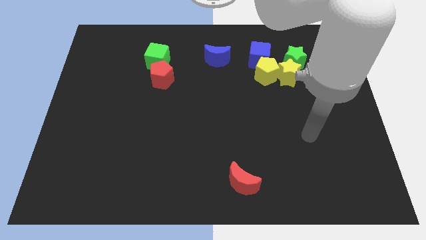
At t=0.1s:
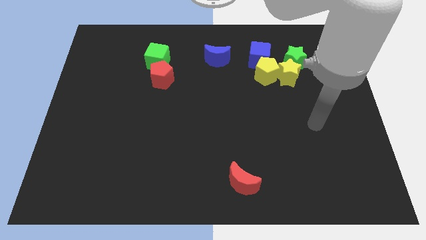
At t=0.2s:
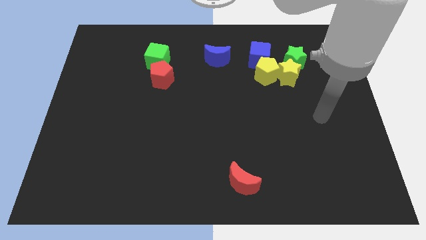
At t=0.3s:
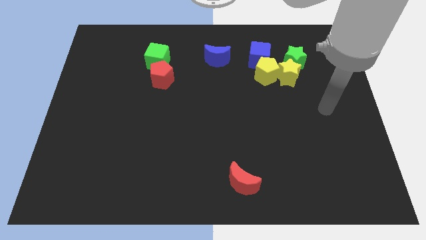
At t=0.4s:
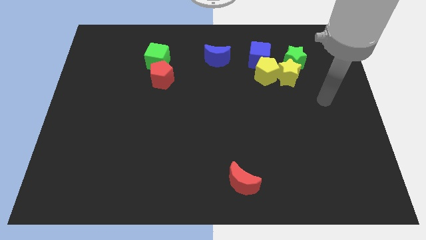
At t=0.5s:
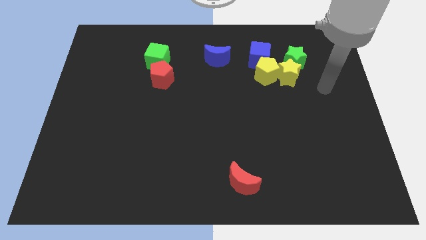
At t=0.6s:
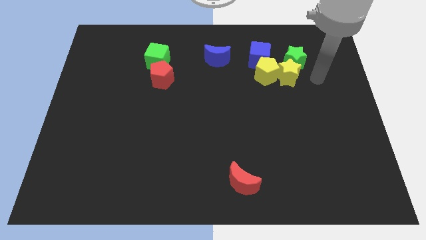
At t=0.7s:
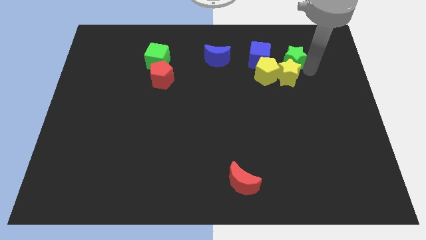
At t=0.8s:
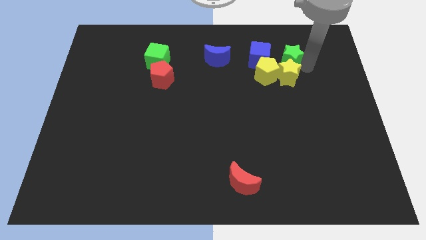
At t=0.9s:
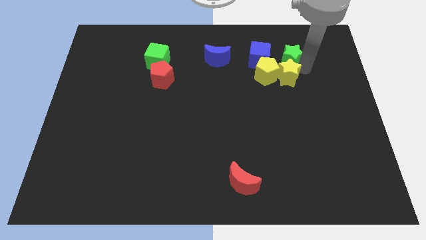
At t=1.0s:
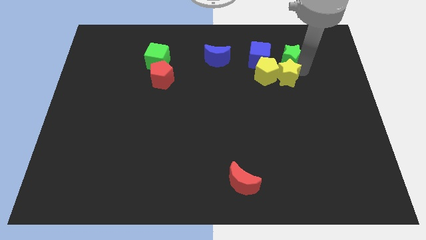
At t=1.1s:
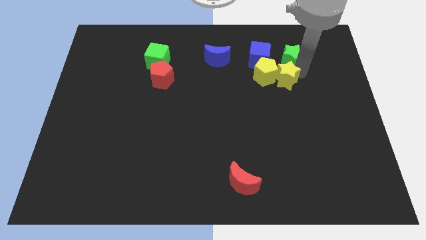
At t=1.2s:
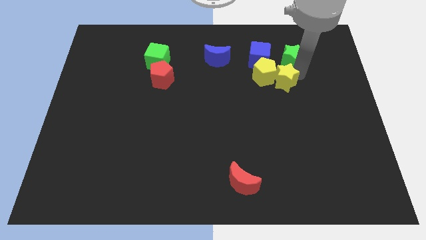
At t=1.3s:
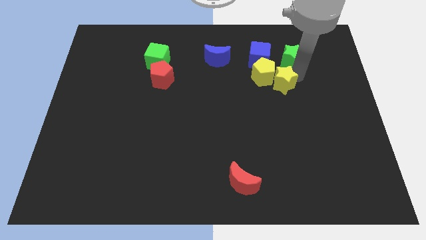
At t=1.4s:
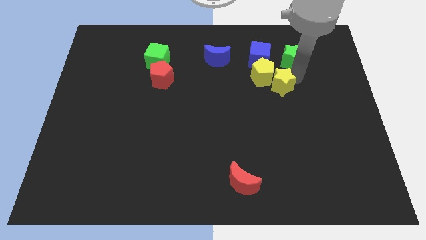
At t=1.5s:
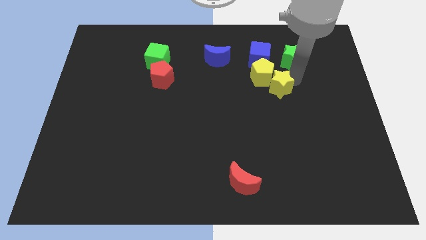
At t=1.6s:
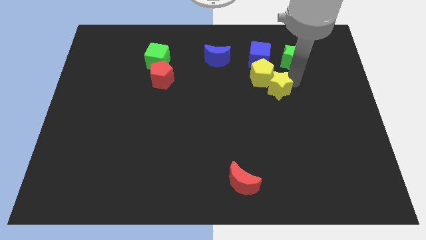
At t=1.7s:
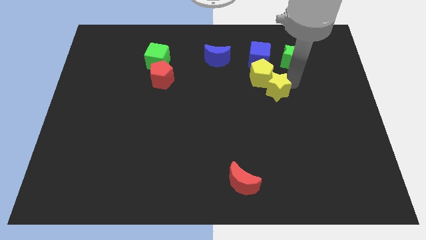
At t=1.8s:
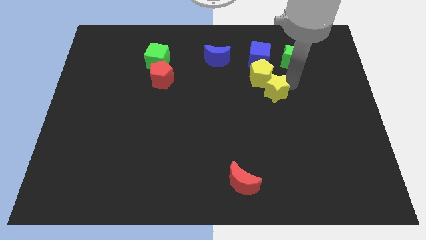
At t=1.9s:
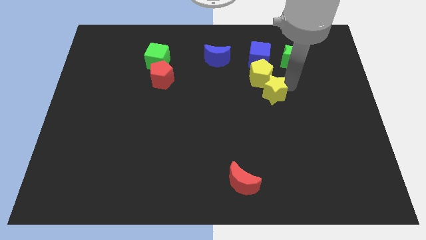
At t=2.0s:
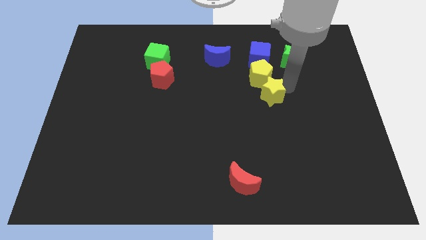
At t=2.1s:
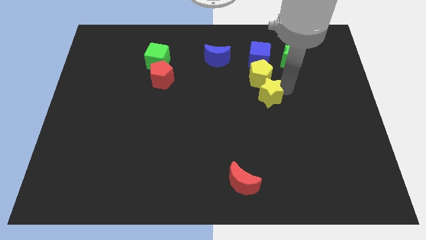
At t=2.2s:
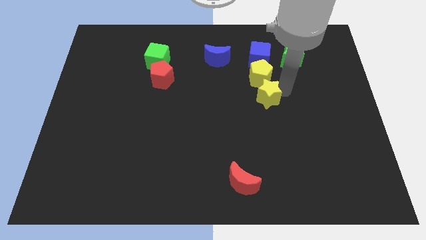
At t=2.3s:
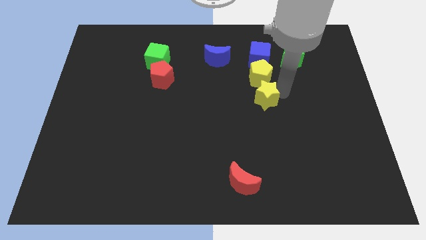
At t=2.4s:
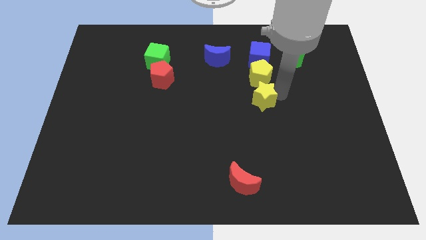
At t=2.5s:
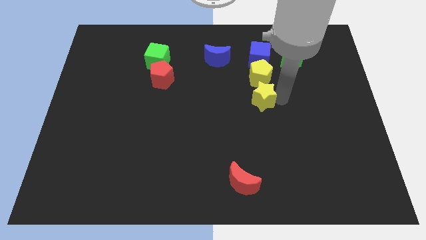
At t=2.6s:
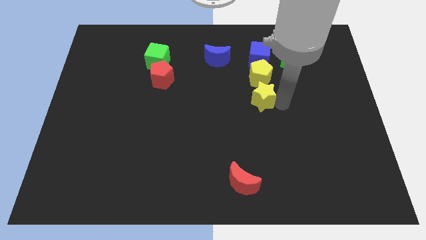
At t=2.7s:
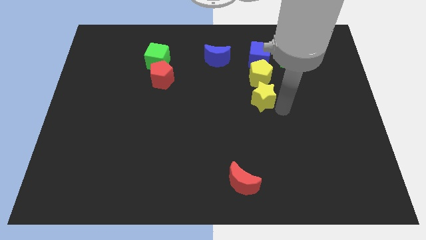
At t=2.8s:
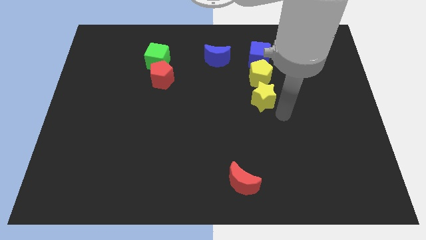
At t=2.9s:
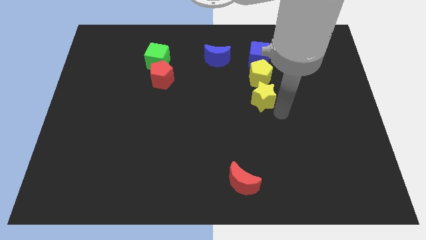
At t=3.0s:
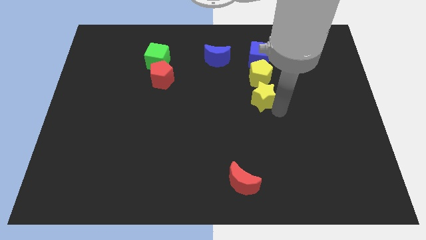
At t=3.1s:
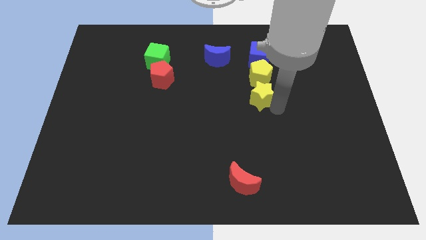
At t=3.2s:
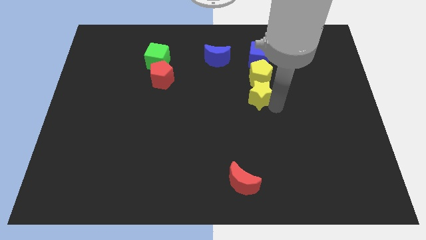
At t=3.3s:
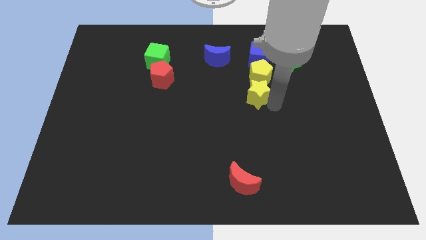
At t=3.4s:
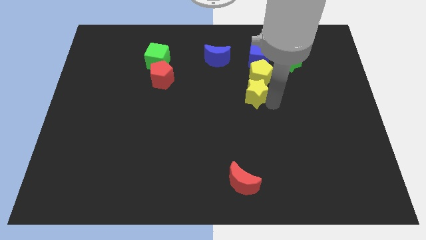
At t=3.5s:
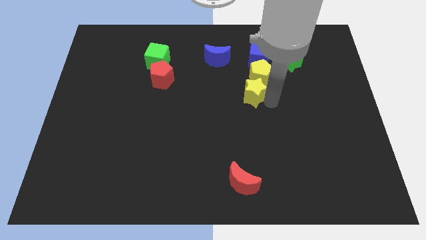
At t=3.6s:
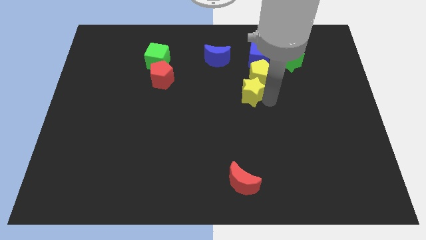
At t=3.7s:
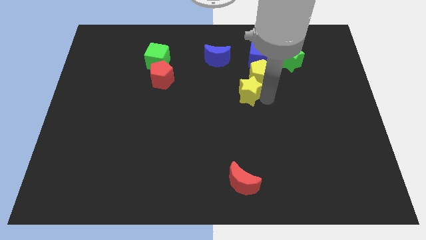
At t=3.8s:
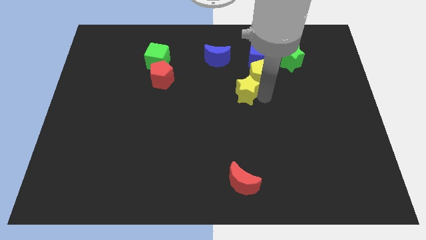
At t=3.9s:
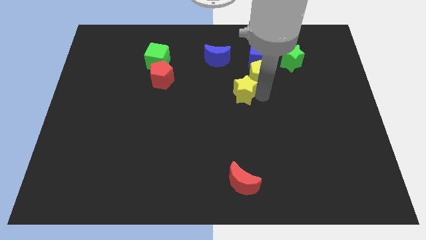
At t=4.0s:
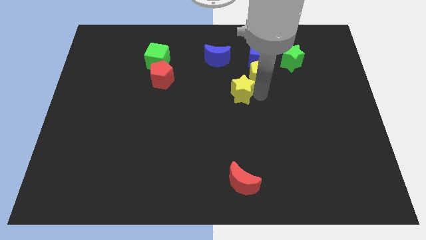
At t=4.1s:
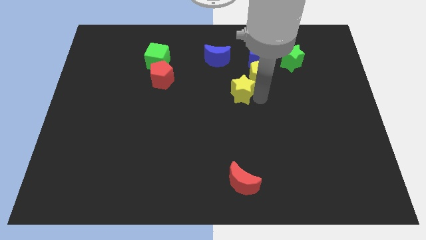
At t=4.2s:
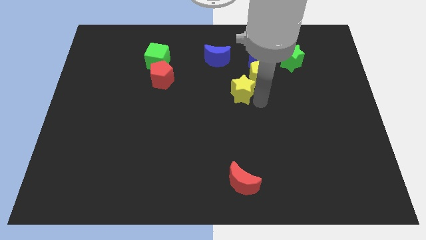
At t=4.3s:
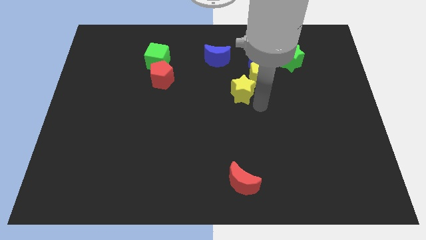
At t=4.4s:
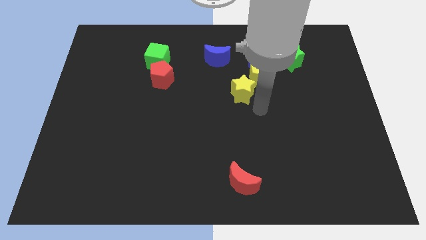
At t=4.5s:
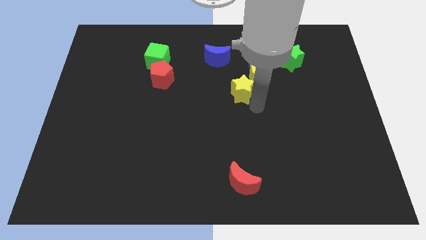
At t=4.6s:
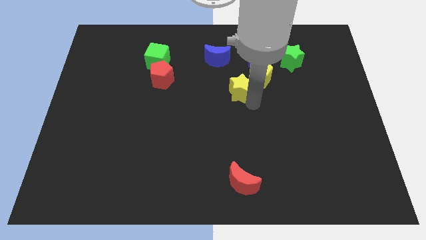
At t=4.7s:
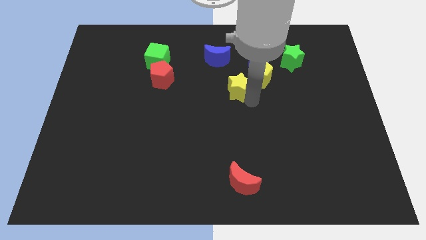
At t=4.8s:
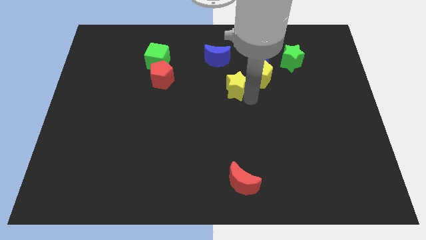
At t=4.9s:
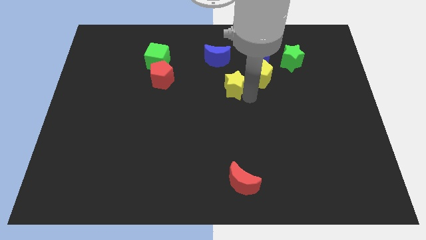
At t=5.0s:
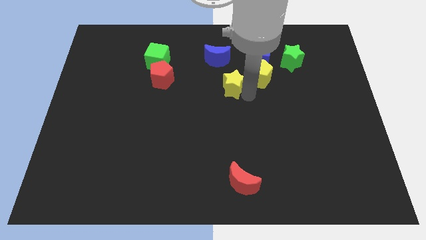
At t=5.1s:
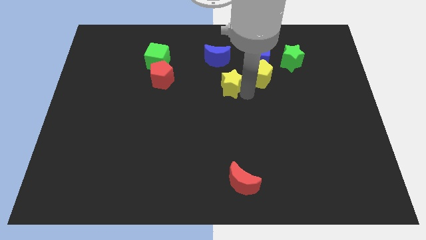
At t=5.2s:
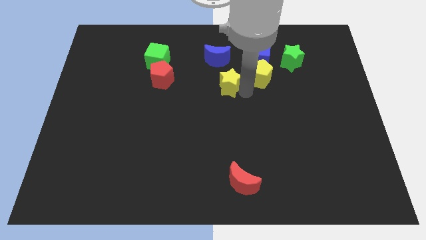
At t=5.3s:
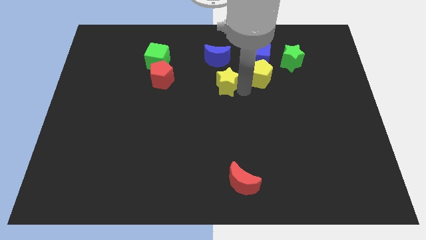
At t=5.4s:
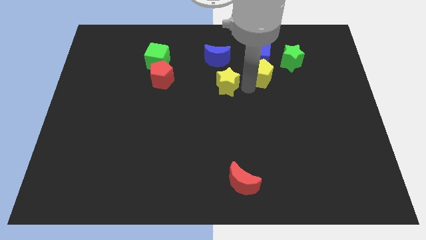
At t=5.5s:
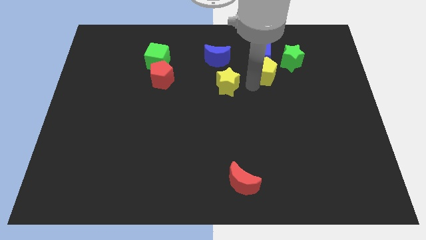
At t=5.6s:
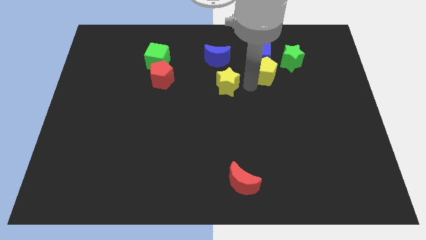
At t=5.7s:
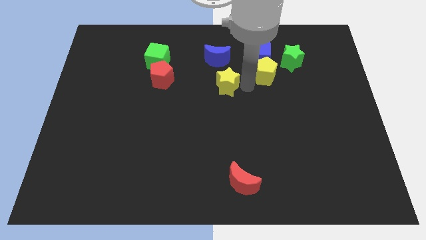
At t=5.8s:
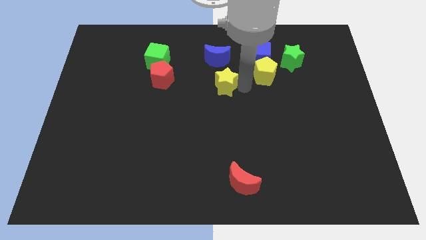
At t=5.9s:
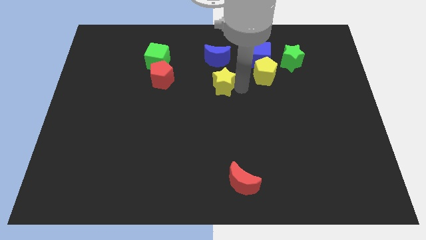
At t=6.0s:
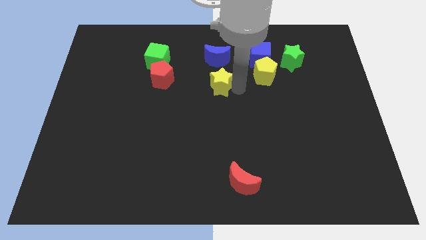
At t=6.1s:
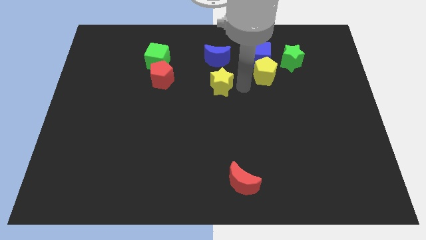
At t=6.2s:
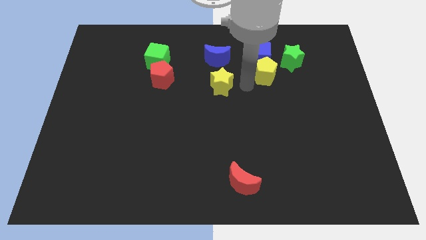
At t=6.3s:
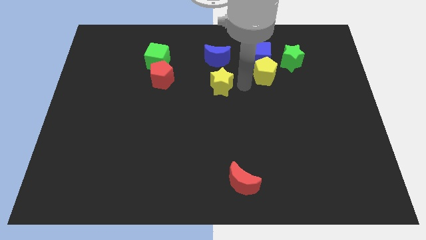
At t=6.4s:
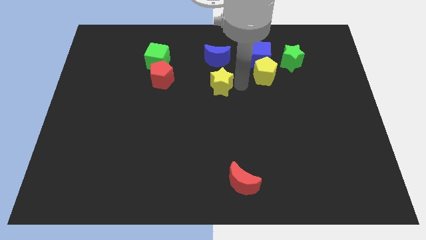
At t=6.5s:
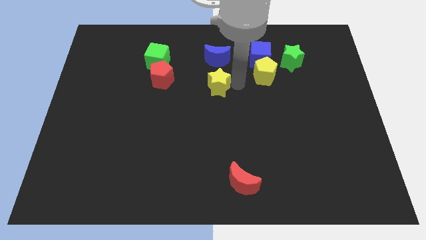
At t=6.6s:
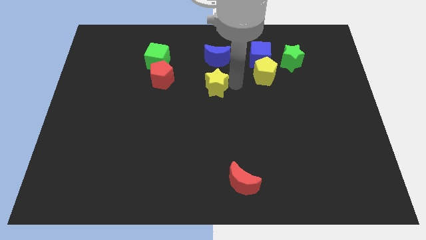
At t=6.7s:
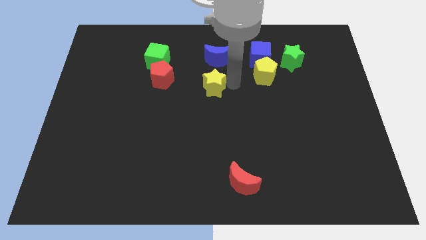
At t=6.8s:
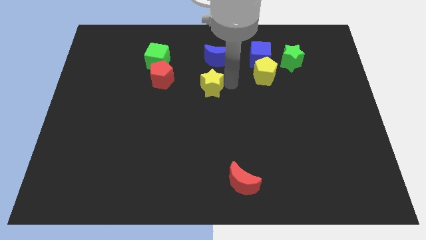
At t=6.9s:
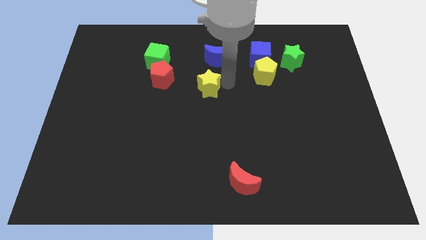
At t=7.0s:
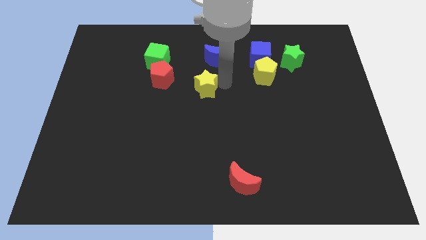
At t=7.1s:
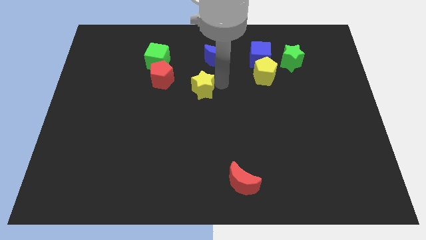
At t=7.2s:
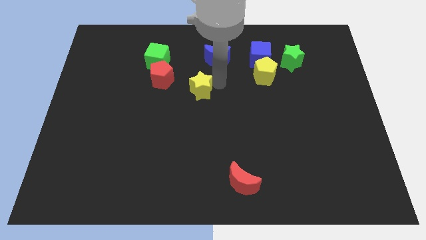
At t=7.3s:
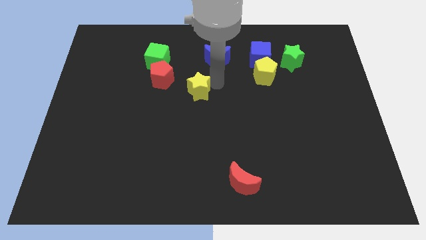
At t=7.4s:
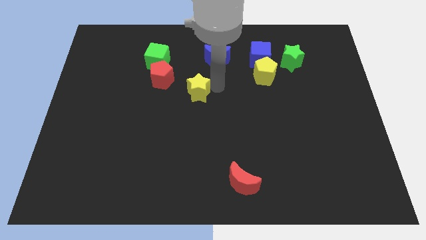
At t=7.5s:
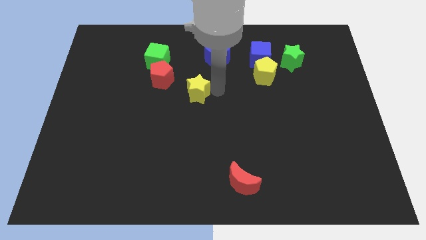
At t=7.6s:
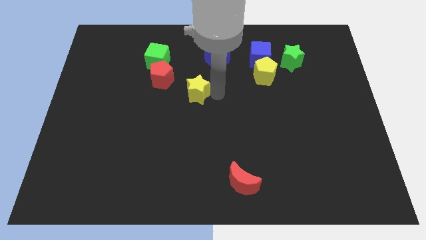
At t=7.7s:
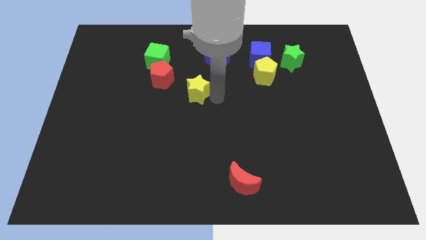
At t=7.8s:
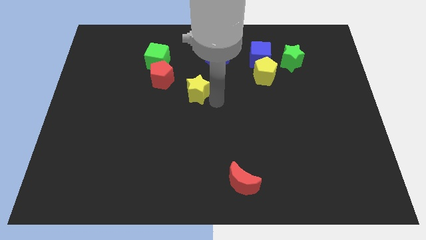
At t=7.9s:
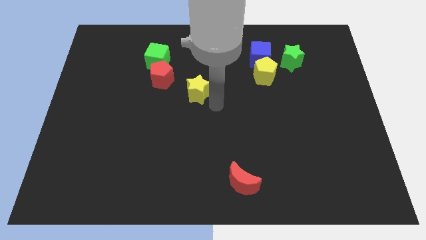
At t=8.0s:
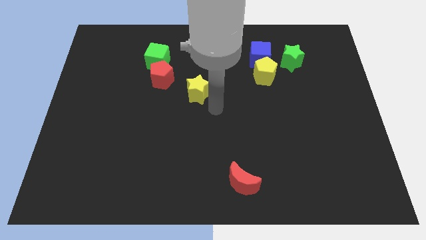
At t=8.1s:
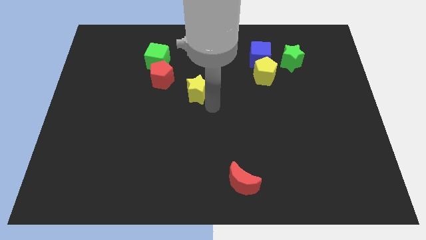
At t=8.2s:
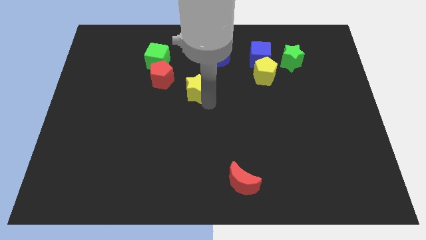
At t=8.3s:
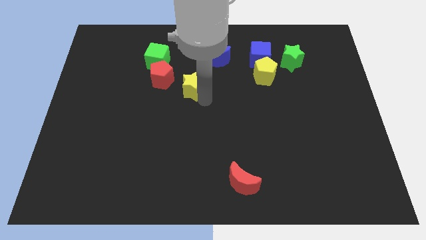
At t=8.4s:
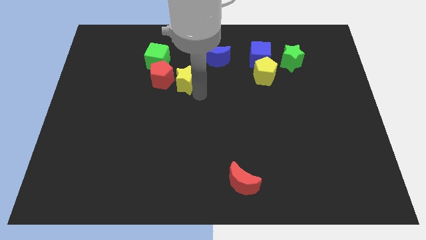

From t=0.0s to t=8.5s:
move the yellow star close to the red pentagon
